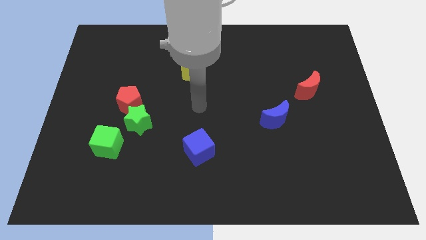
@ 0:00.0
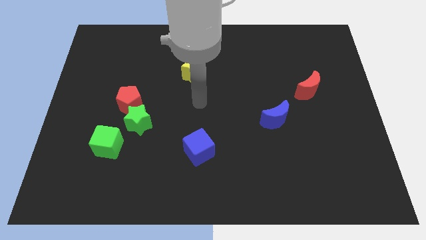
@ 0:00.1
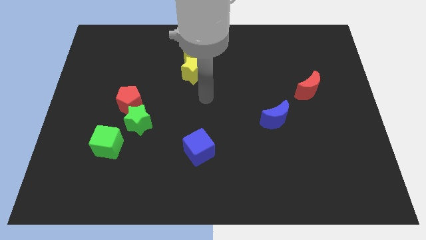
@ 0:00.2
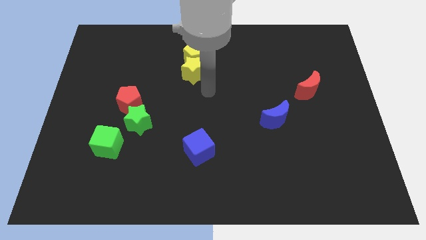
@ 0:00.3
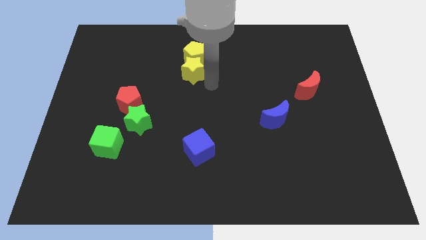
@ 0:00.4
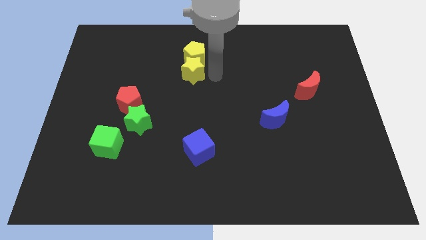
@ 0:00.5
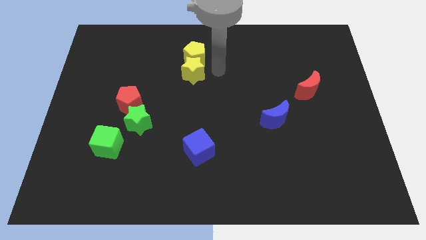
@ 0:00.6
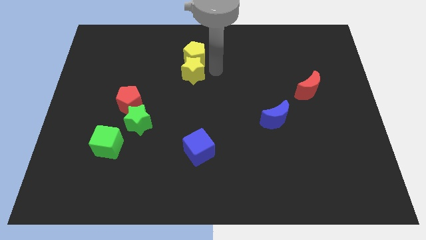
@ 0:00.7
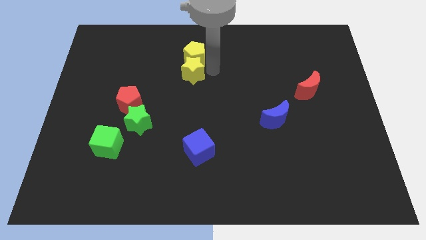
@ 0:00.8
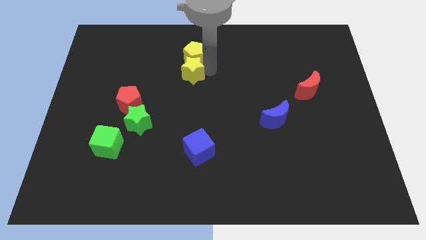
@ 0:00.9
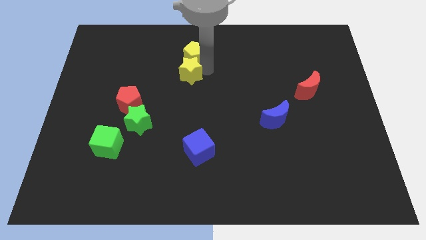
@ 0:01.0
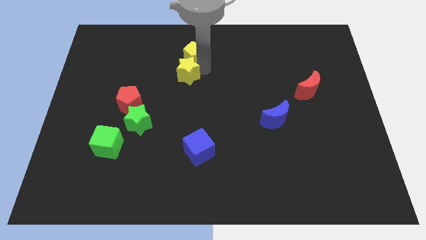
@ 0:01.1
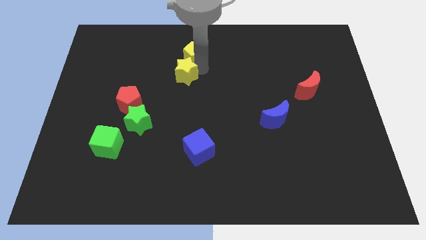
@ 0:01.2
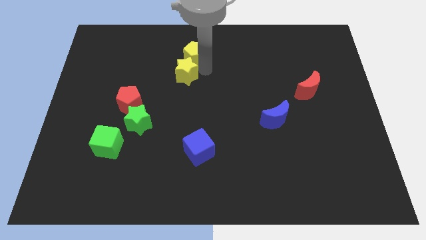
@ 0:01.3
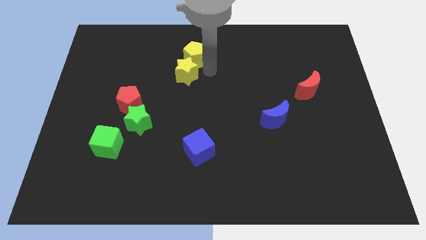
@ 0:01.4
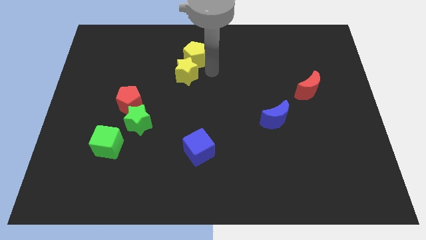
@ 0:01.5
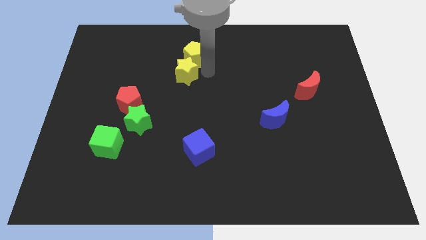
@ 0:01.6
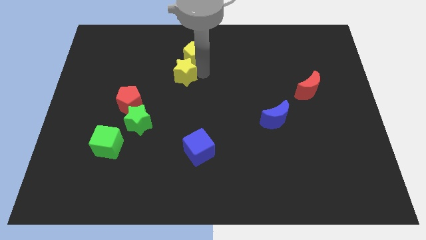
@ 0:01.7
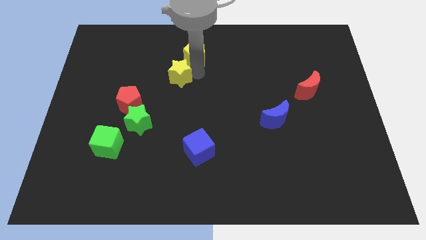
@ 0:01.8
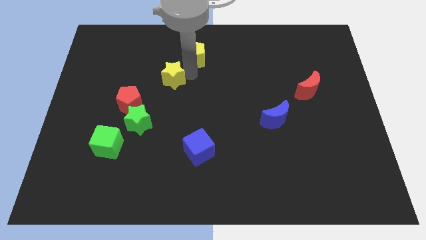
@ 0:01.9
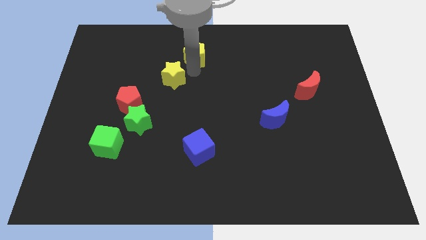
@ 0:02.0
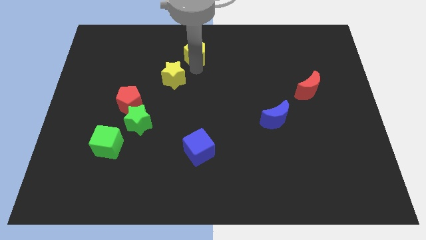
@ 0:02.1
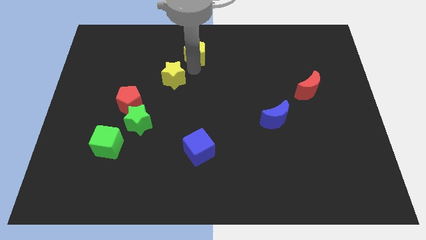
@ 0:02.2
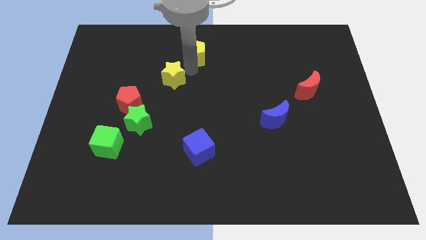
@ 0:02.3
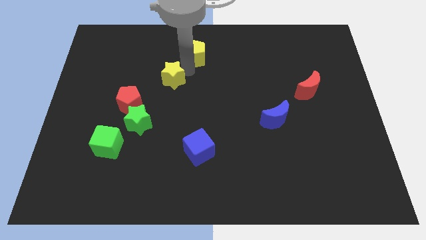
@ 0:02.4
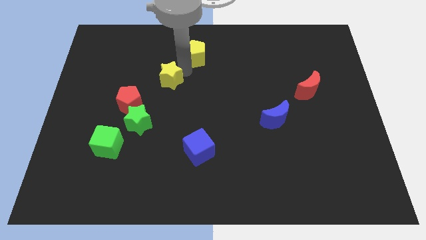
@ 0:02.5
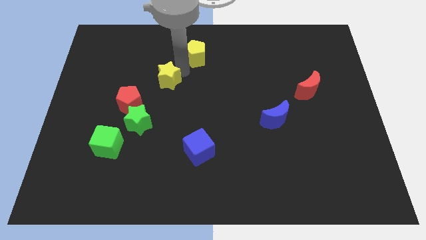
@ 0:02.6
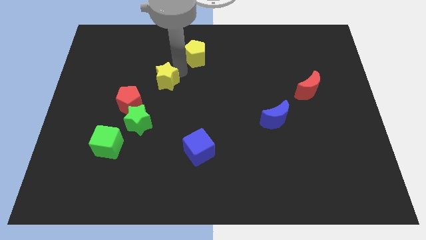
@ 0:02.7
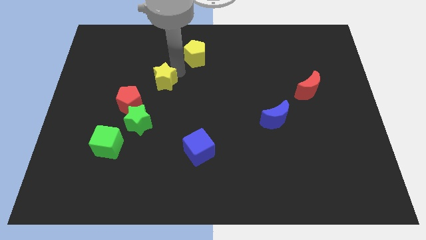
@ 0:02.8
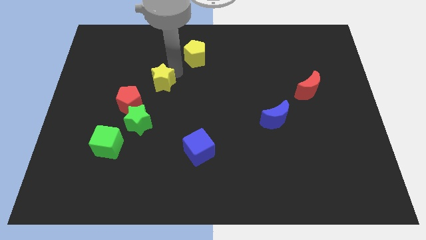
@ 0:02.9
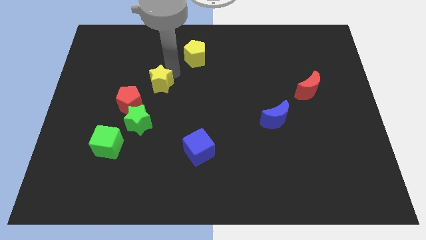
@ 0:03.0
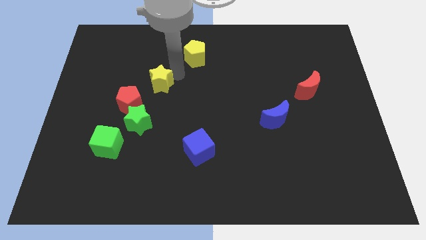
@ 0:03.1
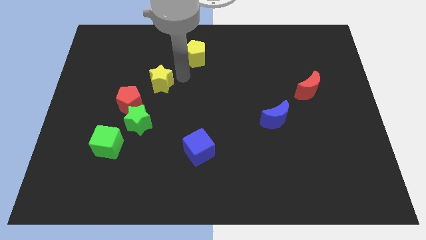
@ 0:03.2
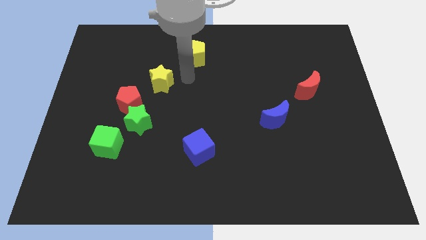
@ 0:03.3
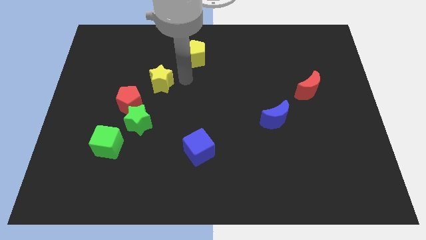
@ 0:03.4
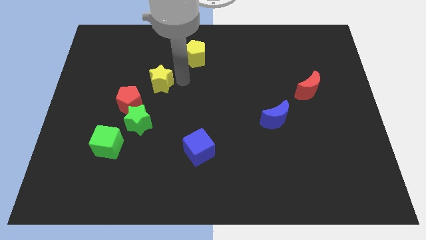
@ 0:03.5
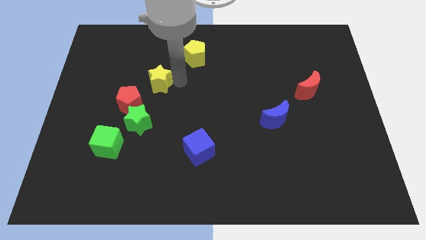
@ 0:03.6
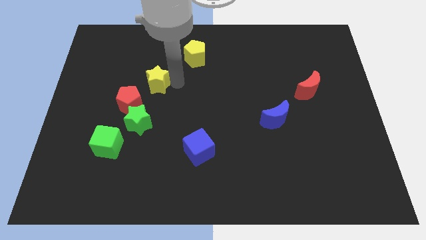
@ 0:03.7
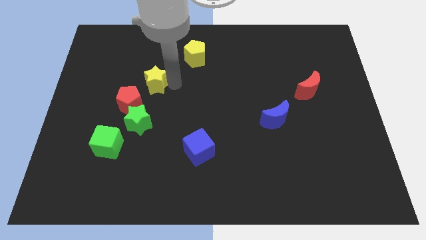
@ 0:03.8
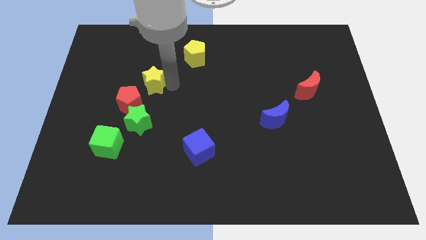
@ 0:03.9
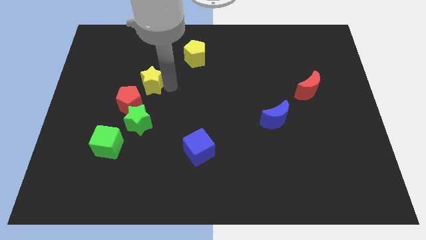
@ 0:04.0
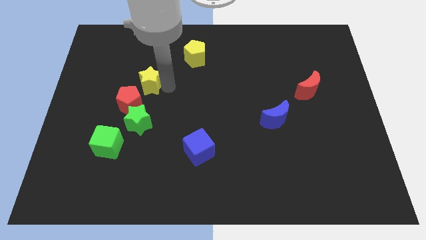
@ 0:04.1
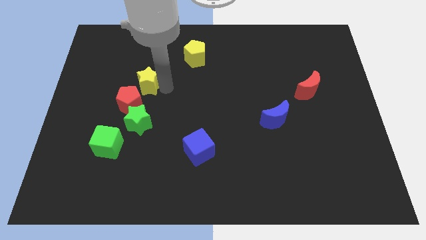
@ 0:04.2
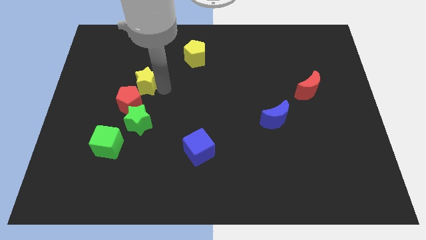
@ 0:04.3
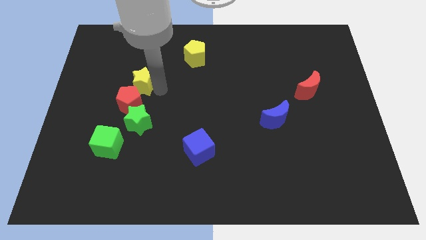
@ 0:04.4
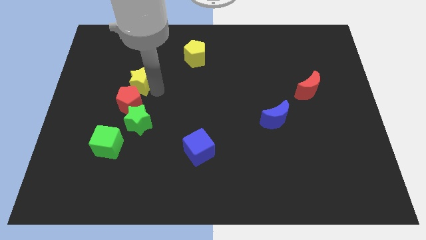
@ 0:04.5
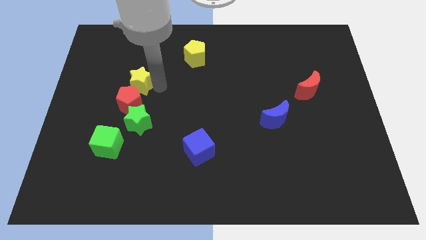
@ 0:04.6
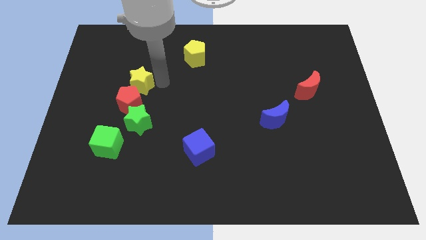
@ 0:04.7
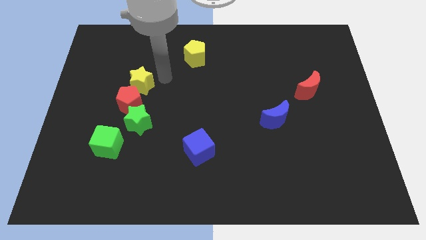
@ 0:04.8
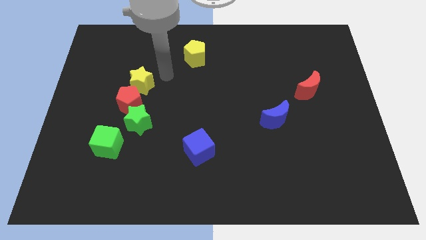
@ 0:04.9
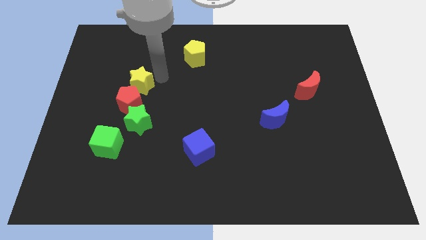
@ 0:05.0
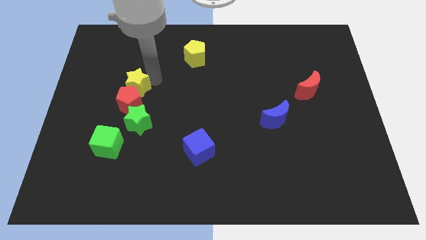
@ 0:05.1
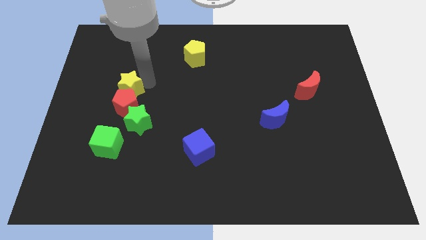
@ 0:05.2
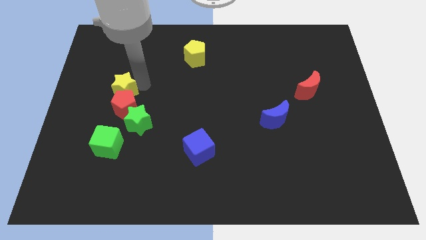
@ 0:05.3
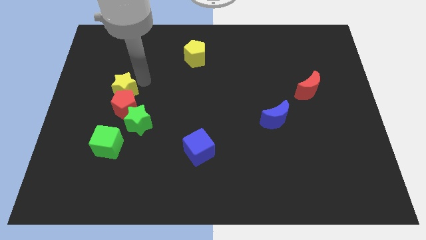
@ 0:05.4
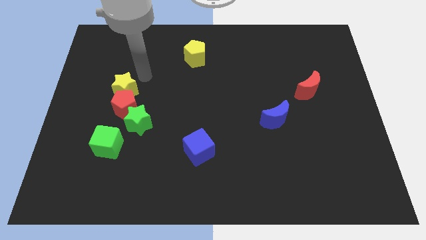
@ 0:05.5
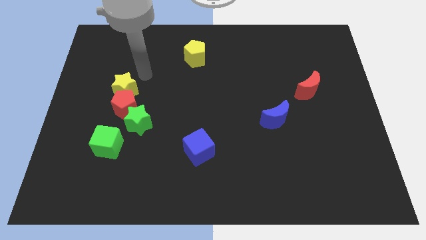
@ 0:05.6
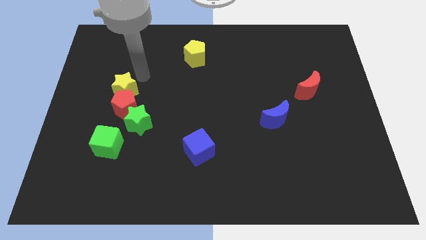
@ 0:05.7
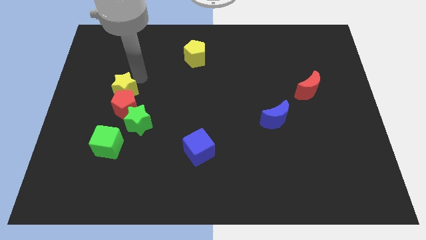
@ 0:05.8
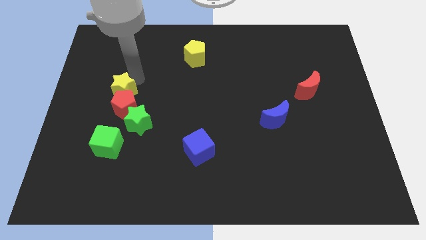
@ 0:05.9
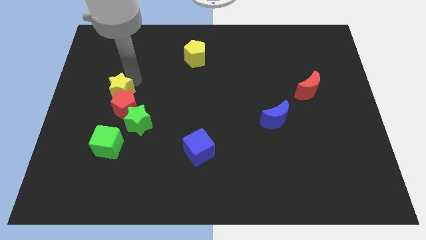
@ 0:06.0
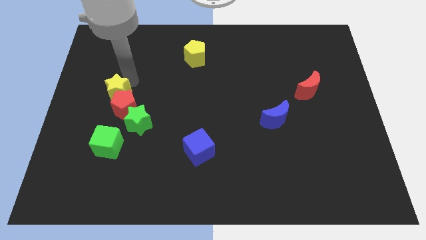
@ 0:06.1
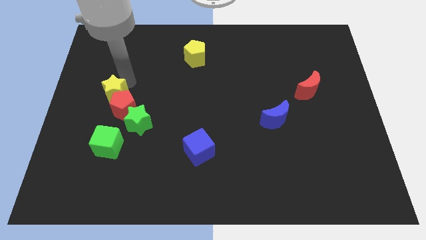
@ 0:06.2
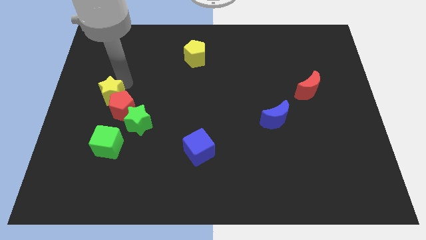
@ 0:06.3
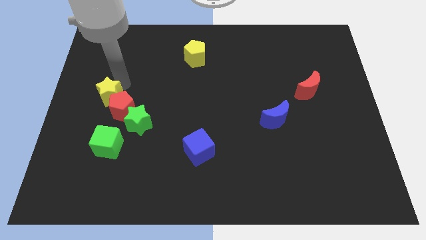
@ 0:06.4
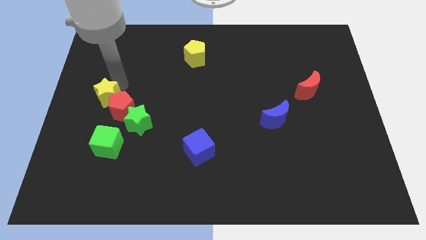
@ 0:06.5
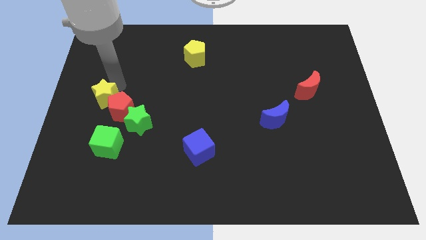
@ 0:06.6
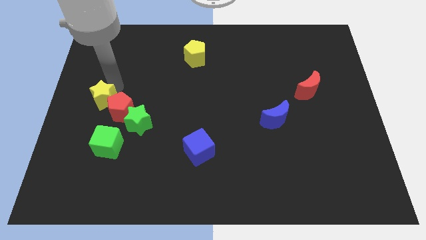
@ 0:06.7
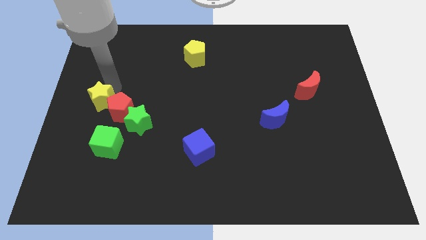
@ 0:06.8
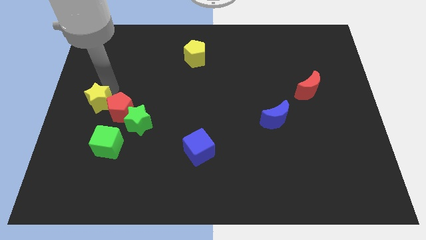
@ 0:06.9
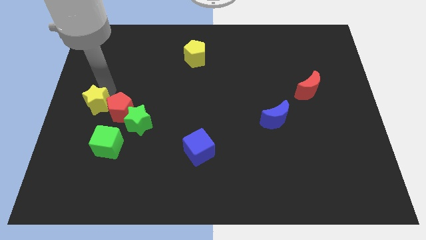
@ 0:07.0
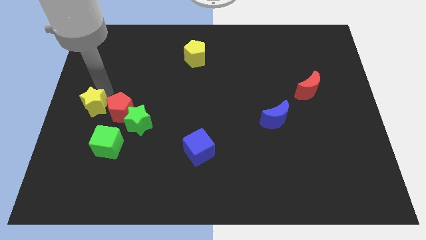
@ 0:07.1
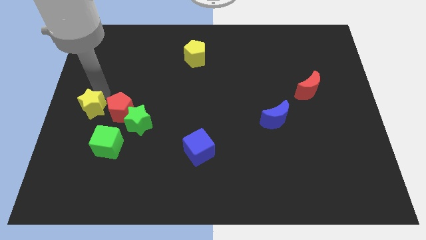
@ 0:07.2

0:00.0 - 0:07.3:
put the yellow star diagonally up and to the left of the green cube
